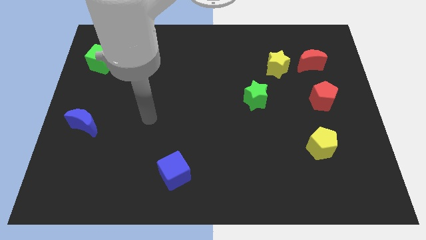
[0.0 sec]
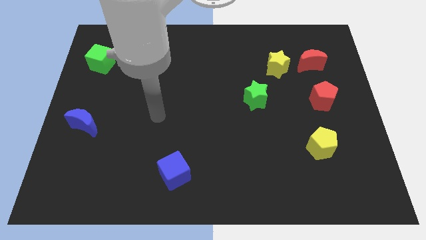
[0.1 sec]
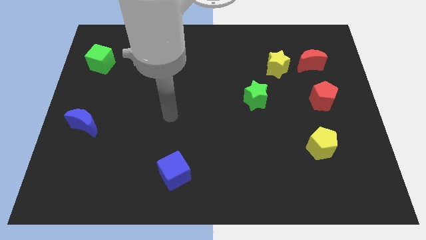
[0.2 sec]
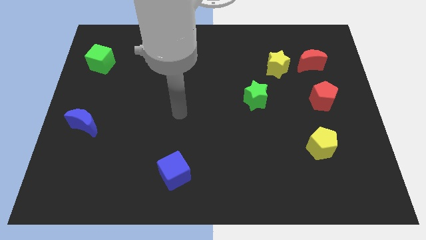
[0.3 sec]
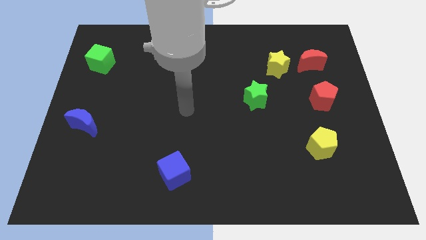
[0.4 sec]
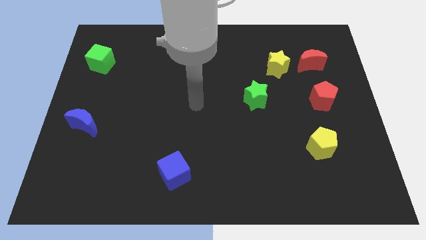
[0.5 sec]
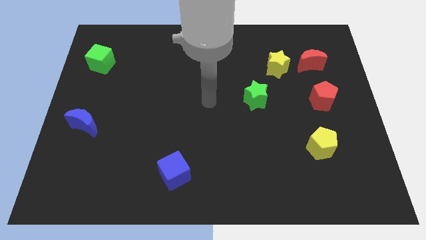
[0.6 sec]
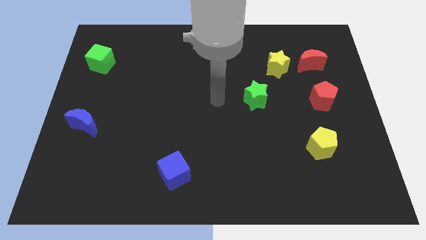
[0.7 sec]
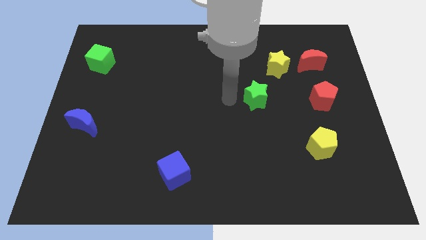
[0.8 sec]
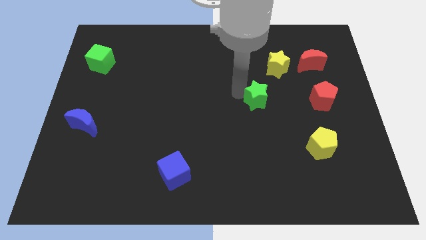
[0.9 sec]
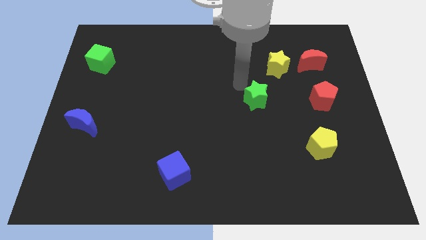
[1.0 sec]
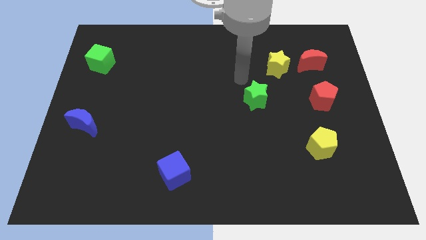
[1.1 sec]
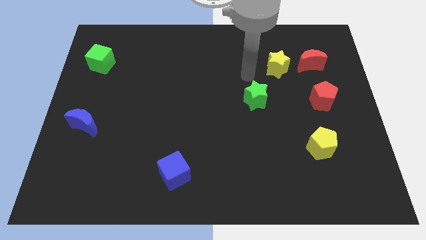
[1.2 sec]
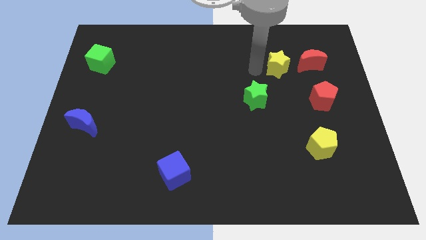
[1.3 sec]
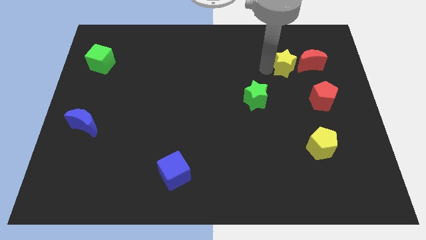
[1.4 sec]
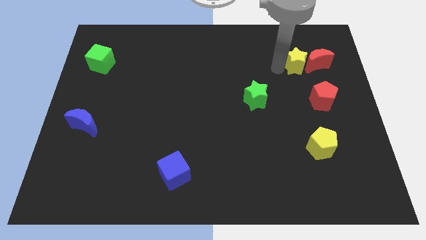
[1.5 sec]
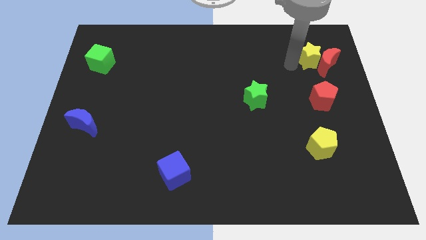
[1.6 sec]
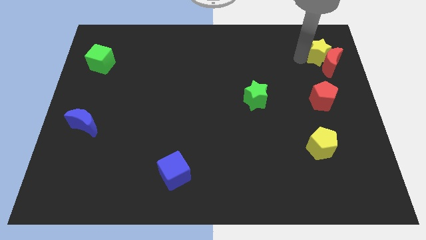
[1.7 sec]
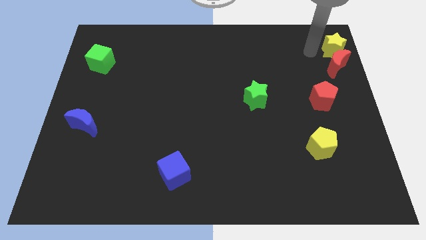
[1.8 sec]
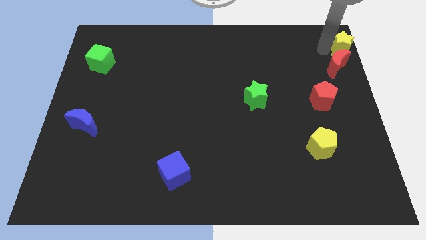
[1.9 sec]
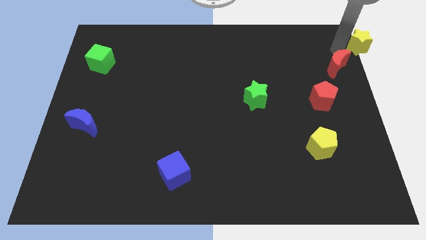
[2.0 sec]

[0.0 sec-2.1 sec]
move the red moon away from the yellow star

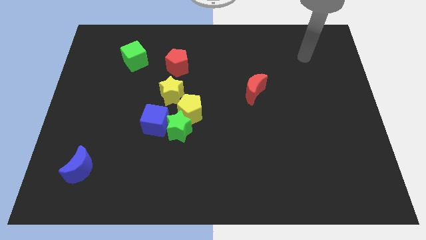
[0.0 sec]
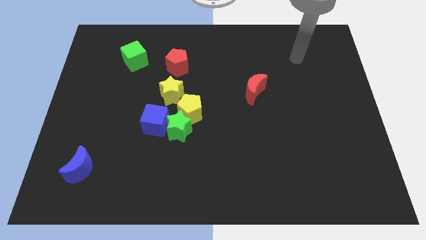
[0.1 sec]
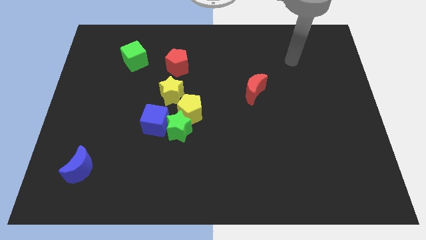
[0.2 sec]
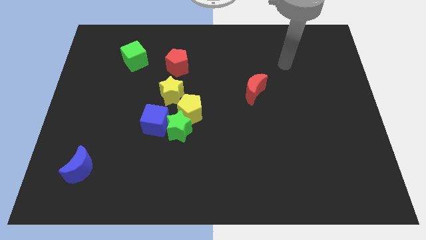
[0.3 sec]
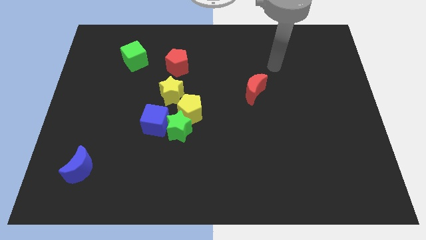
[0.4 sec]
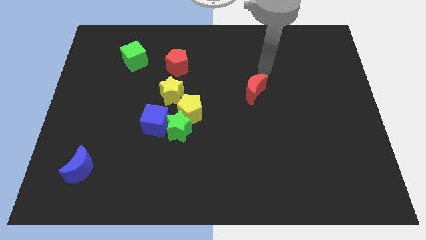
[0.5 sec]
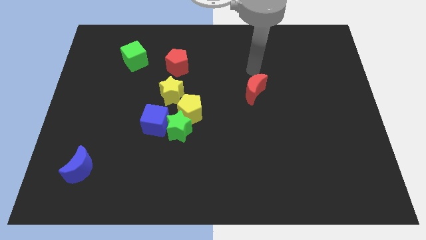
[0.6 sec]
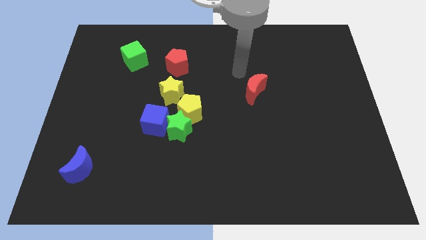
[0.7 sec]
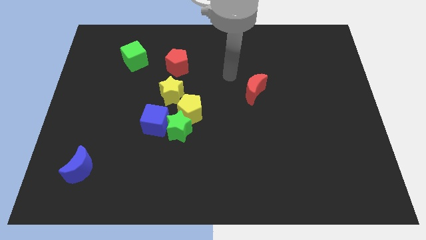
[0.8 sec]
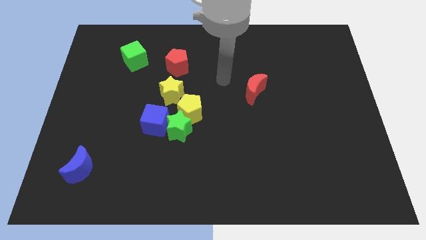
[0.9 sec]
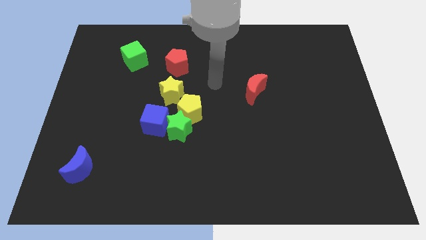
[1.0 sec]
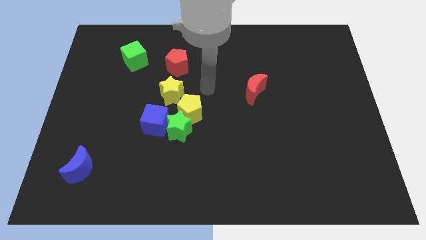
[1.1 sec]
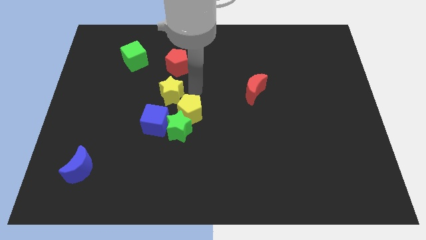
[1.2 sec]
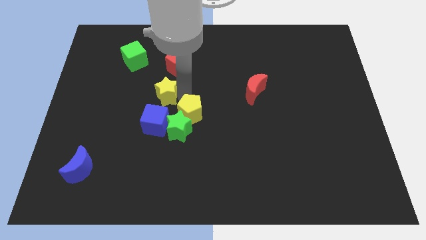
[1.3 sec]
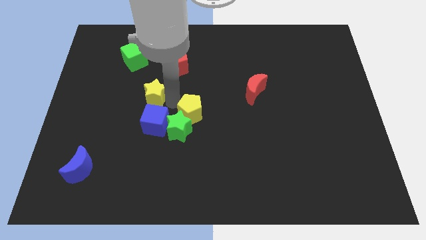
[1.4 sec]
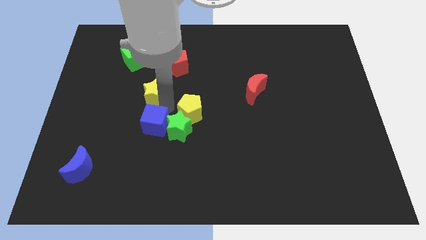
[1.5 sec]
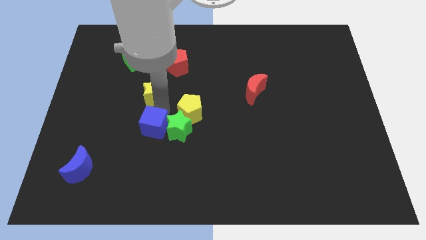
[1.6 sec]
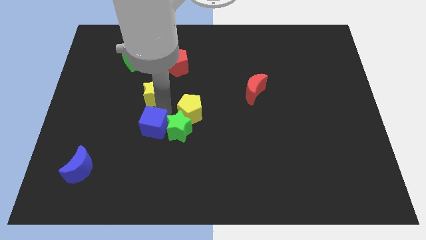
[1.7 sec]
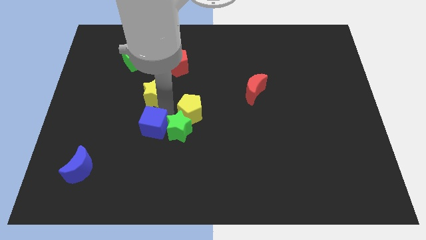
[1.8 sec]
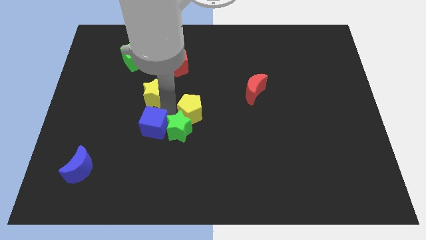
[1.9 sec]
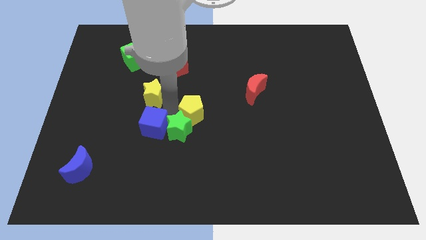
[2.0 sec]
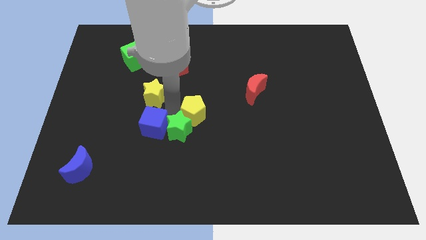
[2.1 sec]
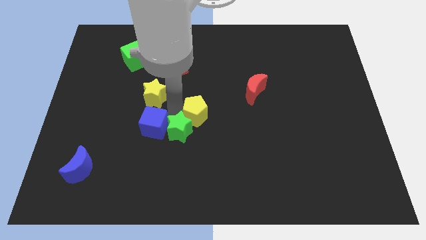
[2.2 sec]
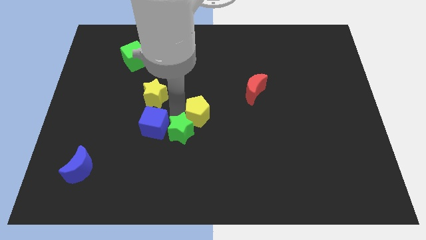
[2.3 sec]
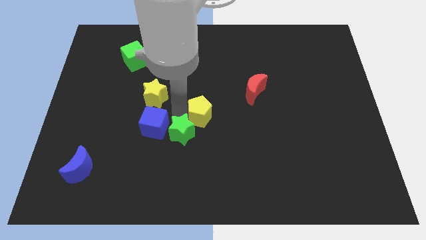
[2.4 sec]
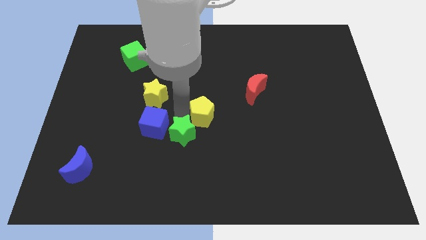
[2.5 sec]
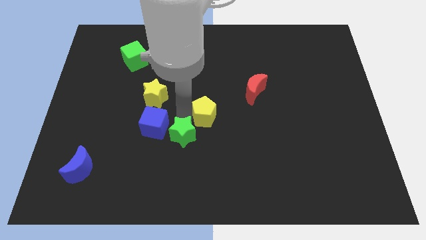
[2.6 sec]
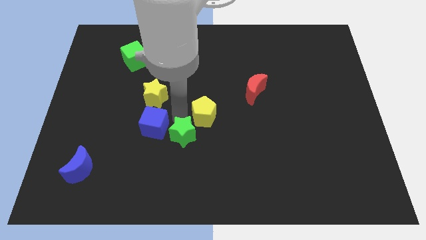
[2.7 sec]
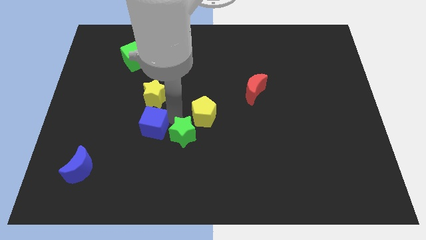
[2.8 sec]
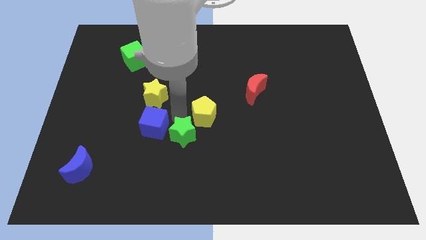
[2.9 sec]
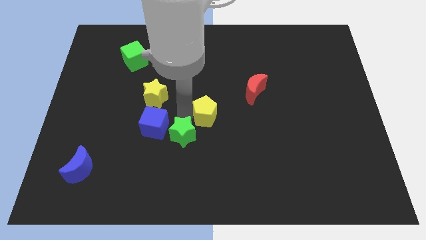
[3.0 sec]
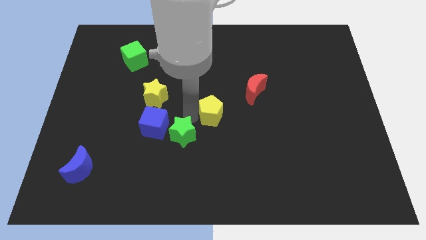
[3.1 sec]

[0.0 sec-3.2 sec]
separate the yellow pentagon from the group

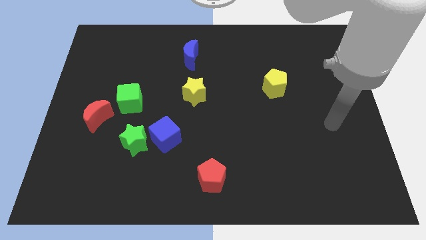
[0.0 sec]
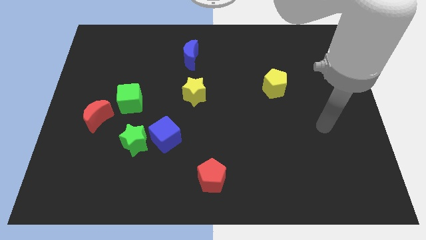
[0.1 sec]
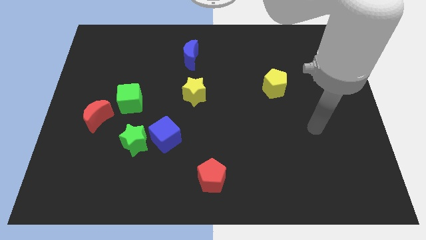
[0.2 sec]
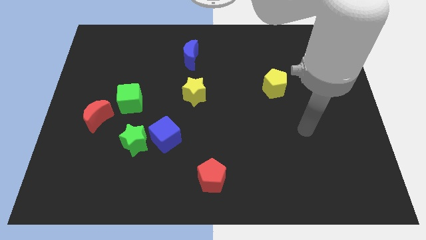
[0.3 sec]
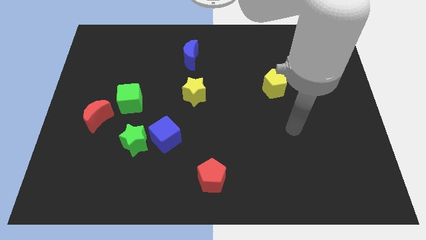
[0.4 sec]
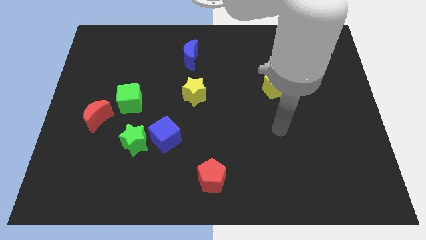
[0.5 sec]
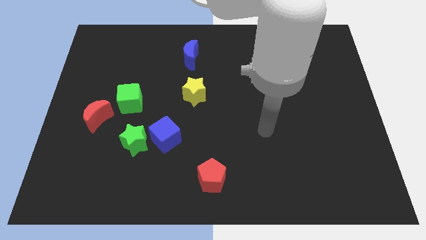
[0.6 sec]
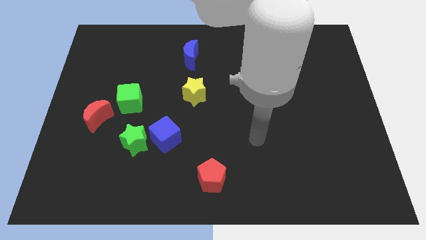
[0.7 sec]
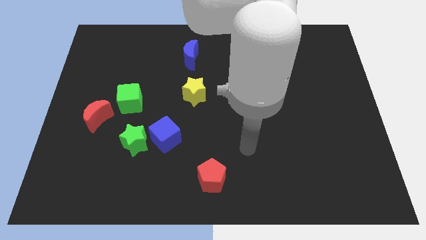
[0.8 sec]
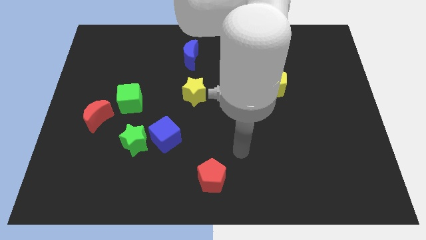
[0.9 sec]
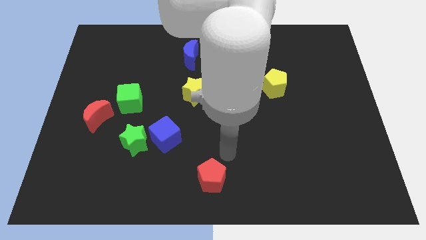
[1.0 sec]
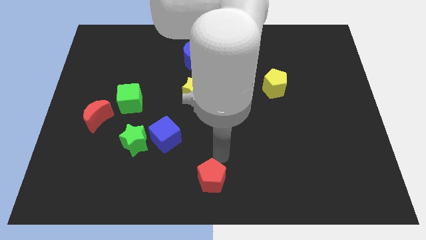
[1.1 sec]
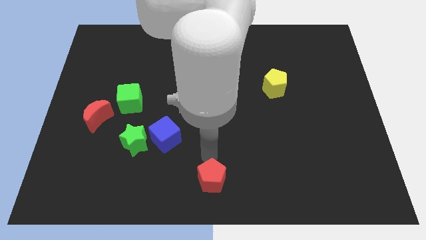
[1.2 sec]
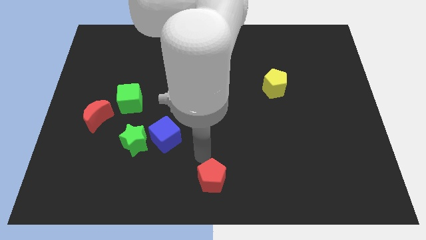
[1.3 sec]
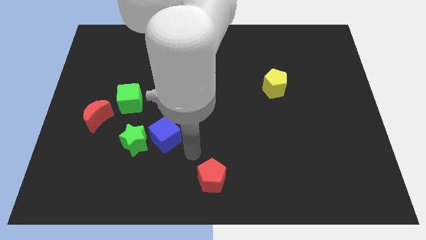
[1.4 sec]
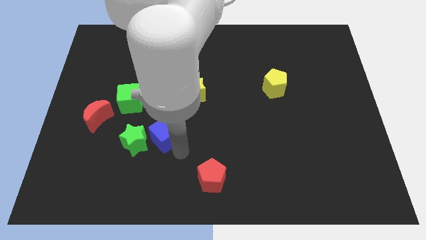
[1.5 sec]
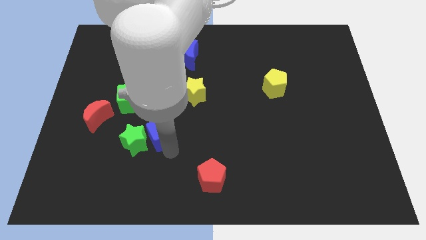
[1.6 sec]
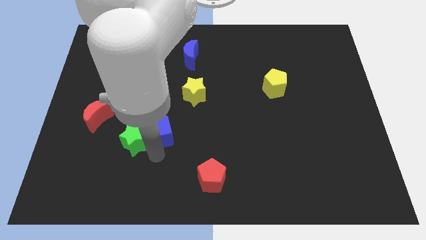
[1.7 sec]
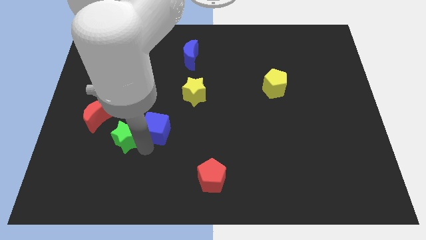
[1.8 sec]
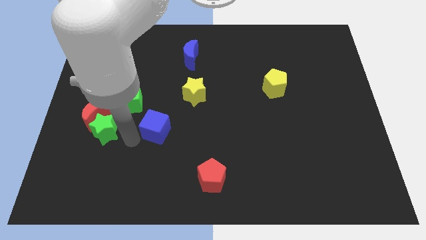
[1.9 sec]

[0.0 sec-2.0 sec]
move the blue cube away from the green star

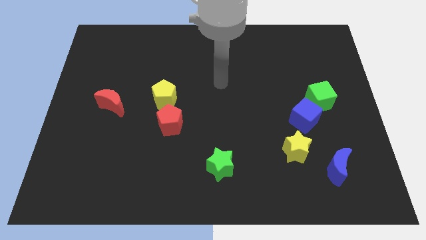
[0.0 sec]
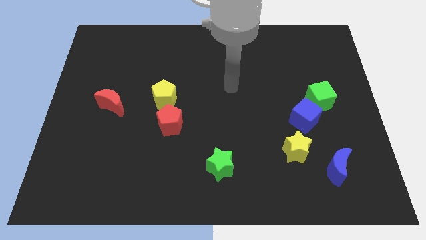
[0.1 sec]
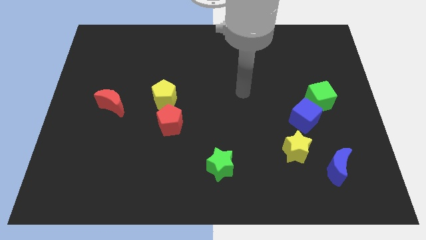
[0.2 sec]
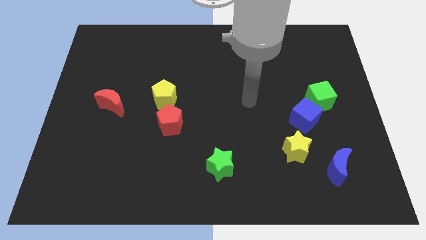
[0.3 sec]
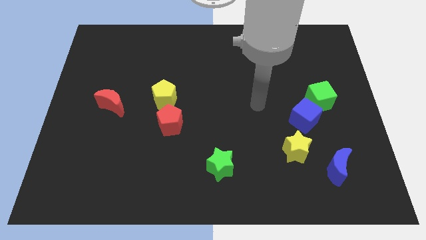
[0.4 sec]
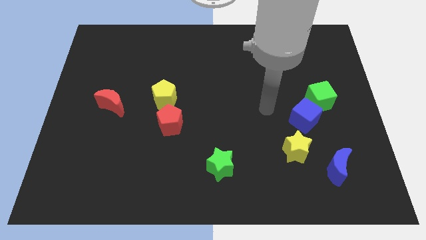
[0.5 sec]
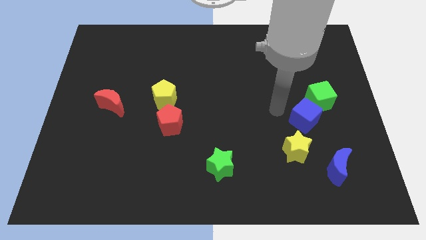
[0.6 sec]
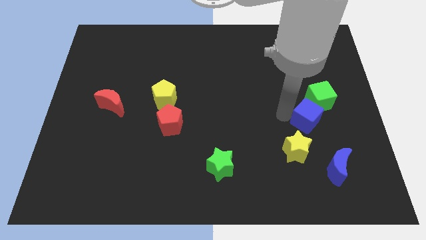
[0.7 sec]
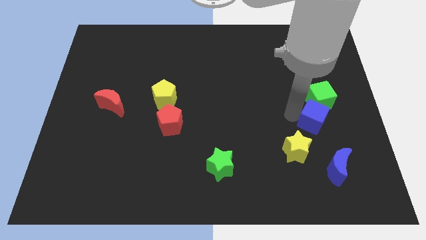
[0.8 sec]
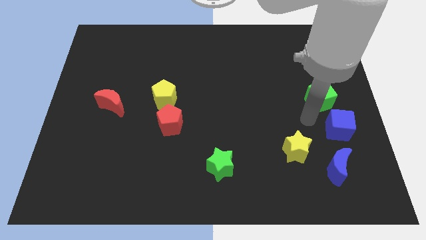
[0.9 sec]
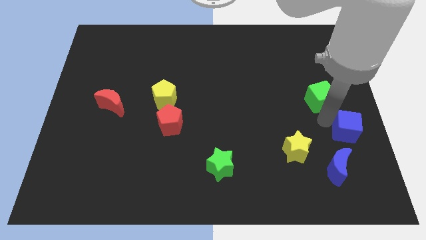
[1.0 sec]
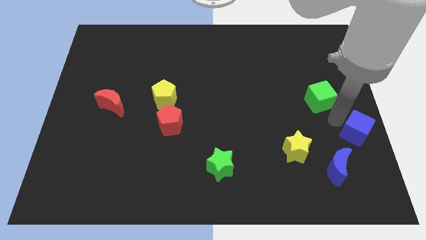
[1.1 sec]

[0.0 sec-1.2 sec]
move the green cube away from the blue cube

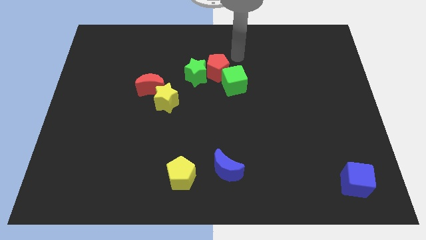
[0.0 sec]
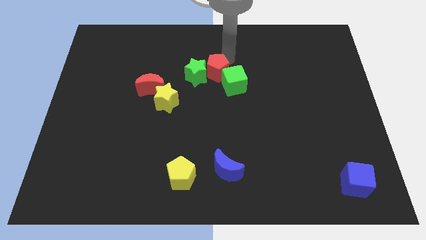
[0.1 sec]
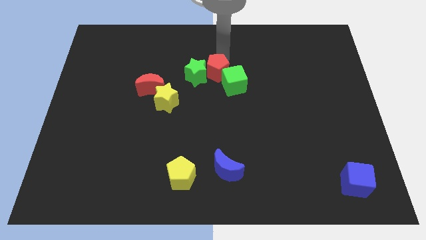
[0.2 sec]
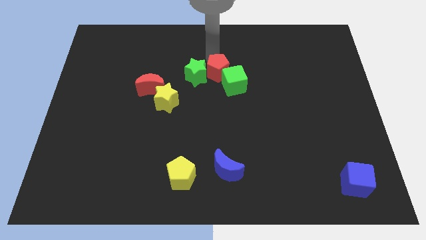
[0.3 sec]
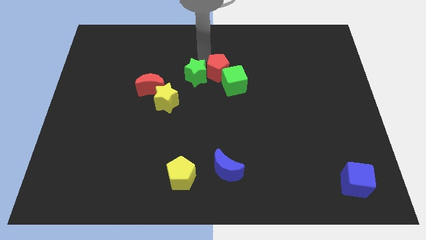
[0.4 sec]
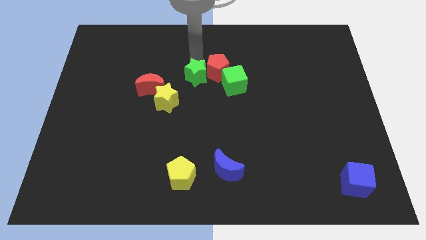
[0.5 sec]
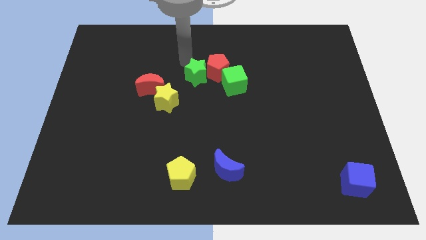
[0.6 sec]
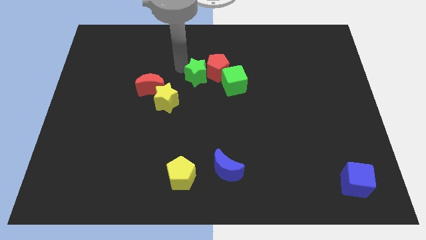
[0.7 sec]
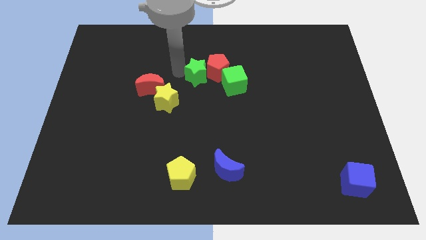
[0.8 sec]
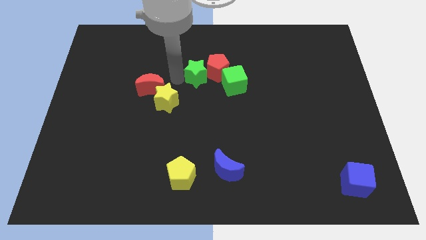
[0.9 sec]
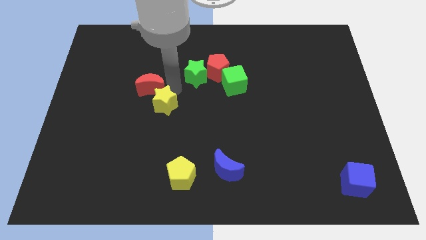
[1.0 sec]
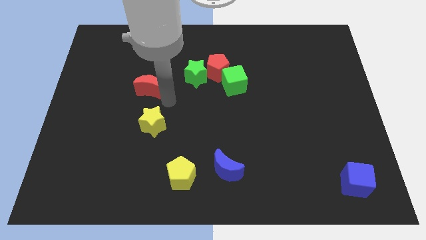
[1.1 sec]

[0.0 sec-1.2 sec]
pull the red moon apart from the yellow star
